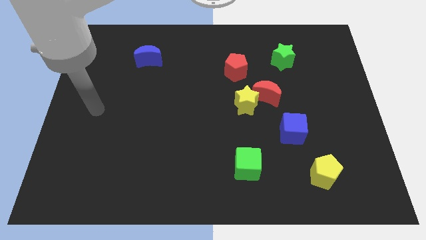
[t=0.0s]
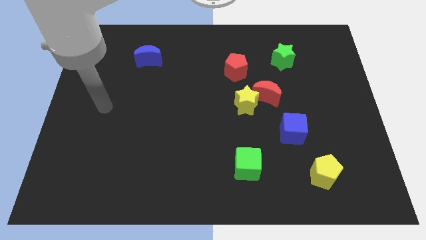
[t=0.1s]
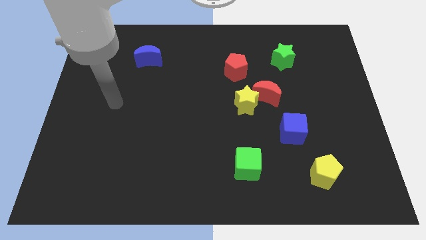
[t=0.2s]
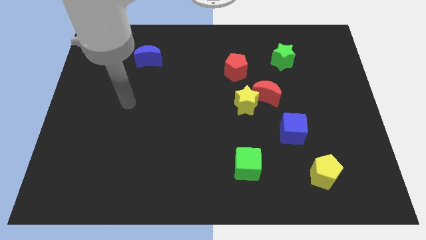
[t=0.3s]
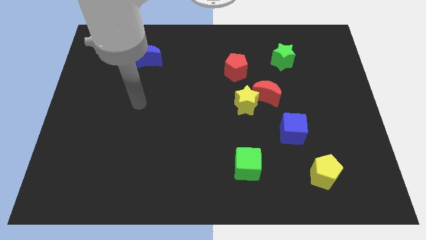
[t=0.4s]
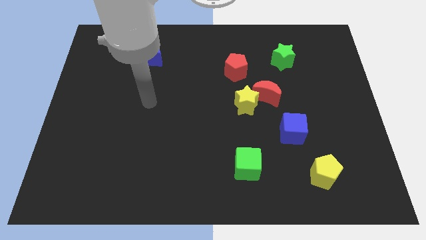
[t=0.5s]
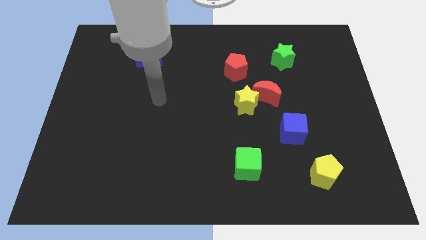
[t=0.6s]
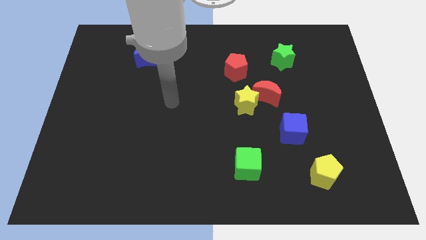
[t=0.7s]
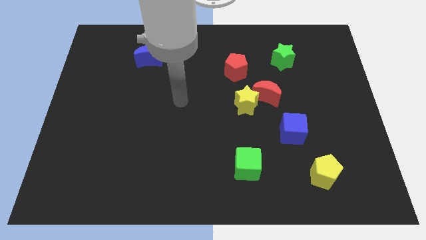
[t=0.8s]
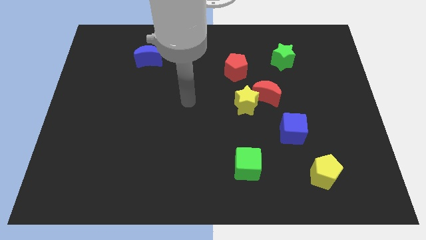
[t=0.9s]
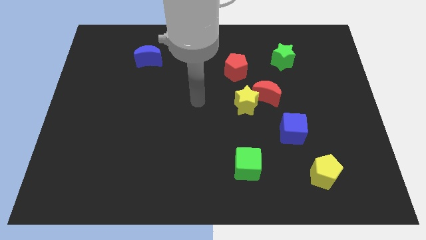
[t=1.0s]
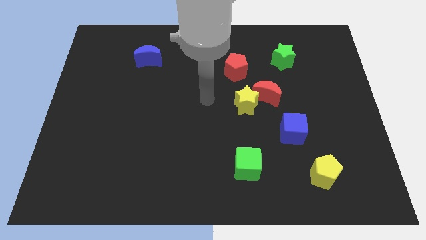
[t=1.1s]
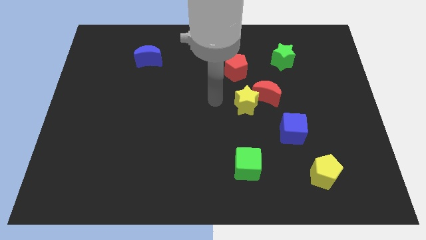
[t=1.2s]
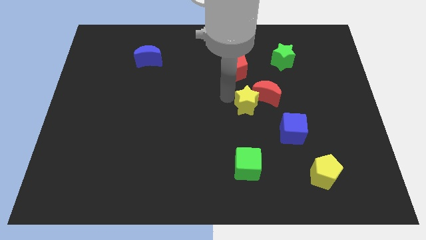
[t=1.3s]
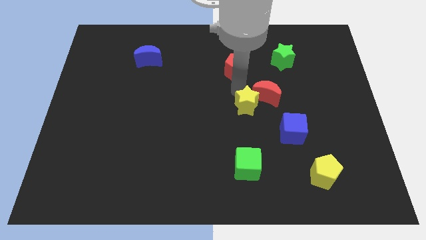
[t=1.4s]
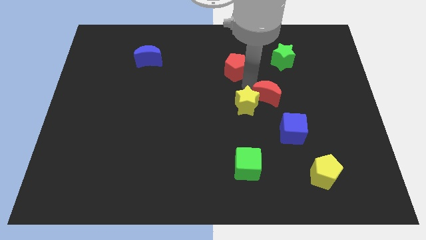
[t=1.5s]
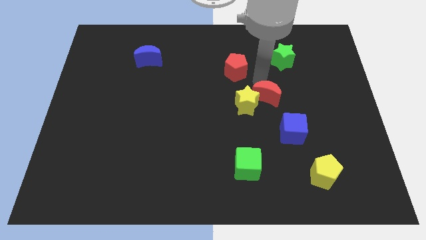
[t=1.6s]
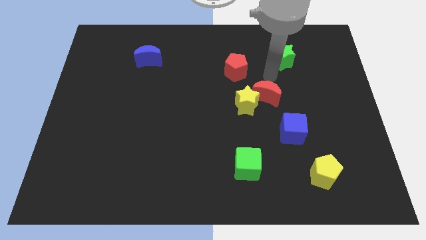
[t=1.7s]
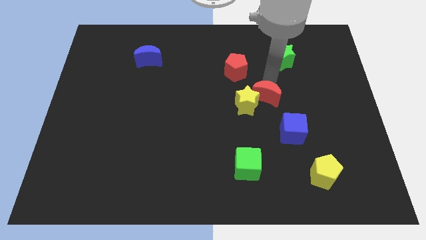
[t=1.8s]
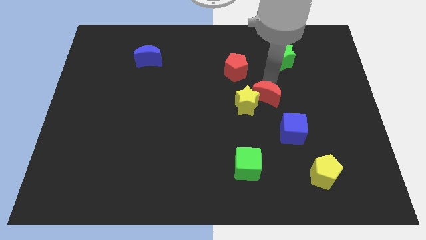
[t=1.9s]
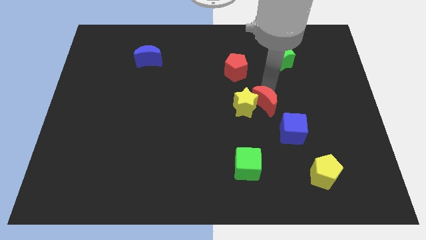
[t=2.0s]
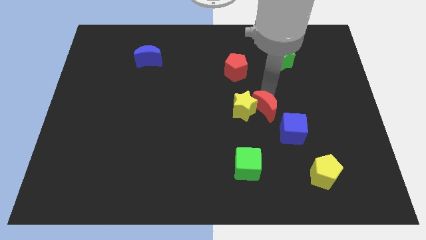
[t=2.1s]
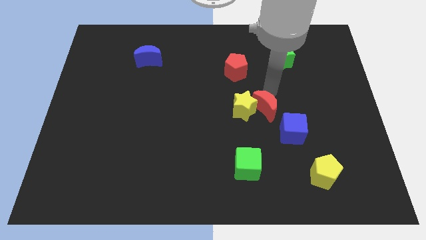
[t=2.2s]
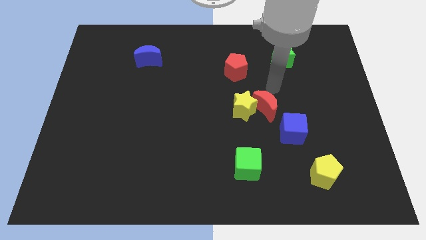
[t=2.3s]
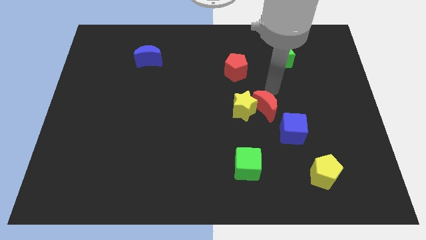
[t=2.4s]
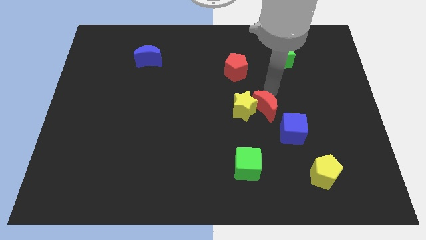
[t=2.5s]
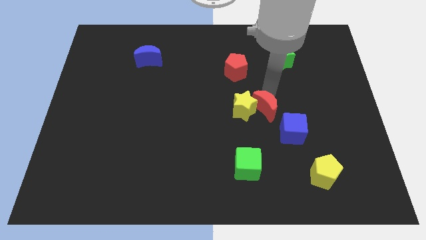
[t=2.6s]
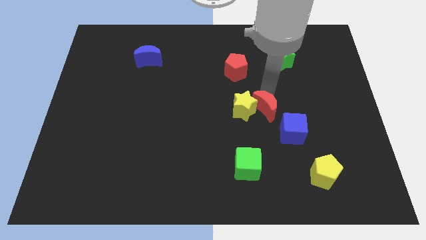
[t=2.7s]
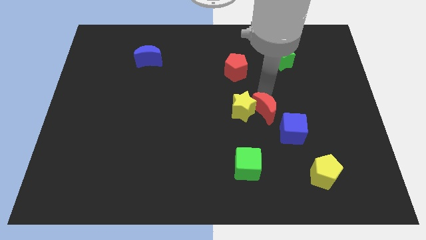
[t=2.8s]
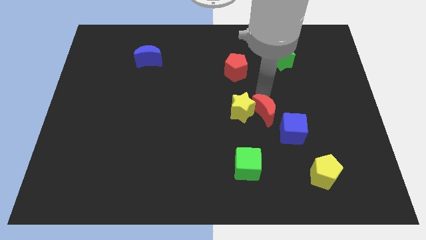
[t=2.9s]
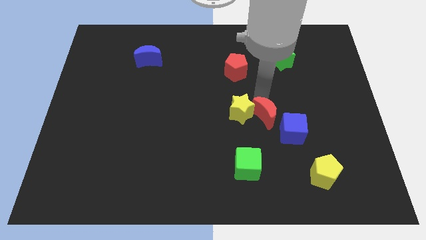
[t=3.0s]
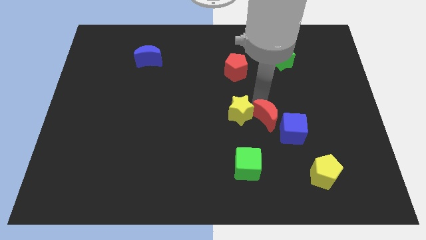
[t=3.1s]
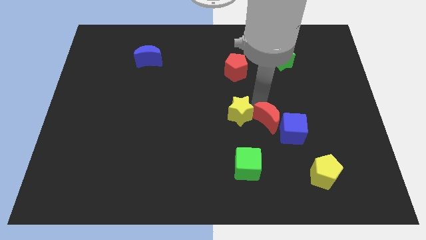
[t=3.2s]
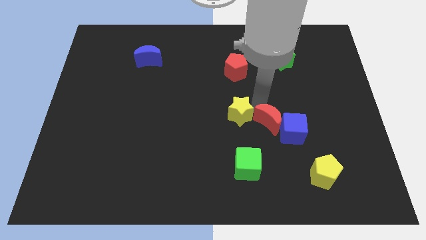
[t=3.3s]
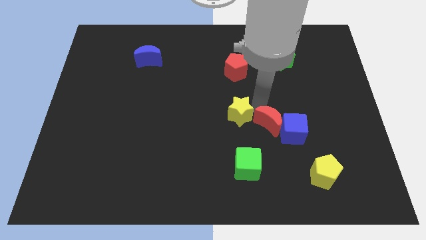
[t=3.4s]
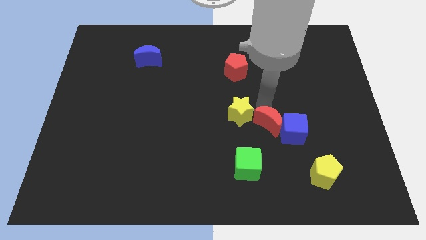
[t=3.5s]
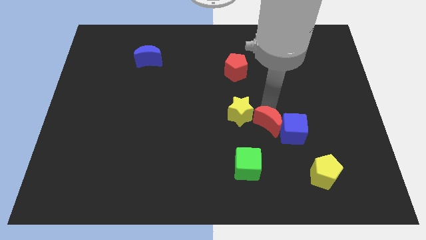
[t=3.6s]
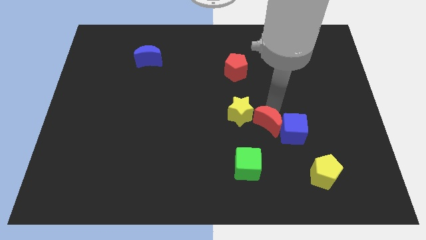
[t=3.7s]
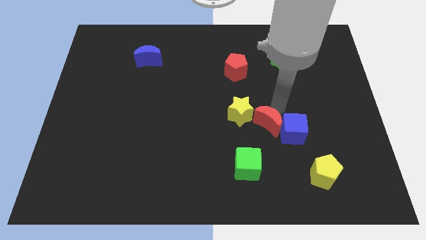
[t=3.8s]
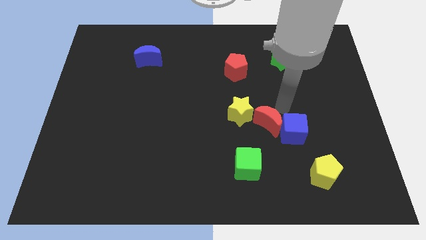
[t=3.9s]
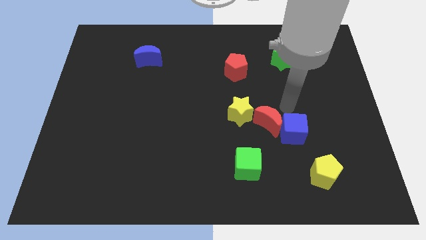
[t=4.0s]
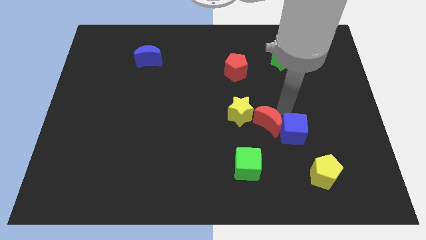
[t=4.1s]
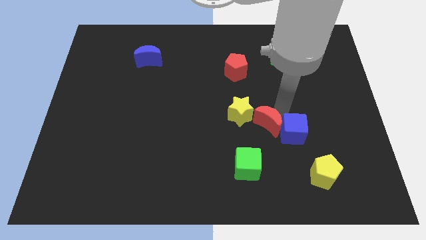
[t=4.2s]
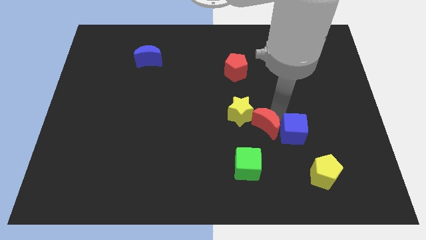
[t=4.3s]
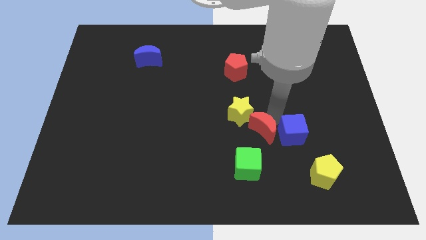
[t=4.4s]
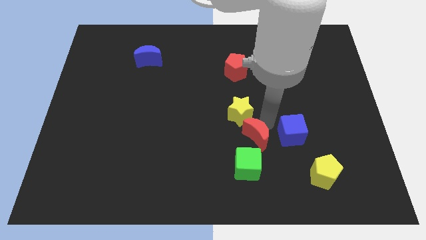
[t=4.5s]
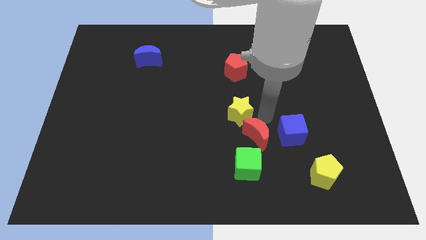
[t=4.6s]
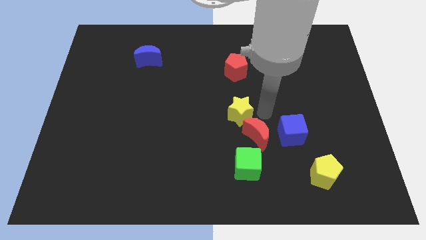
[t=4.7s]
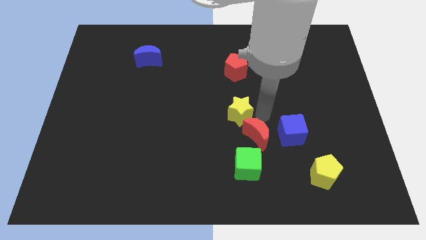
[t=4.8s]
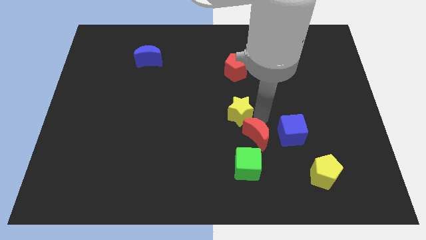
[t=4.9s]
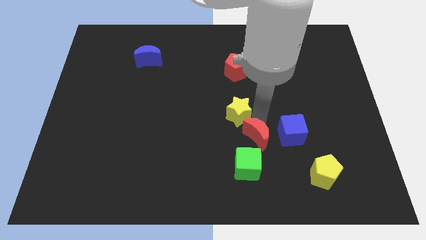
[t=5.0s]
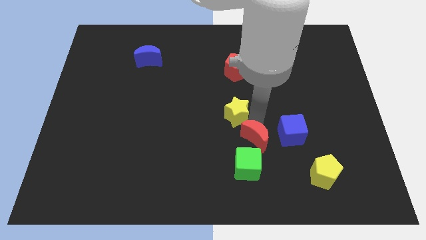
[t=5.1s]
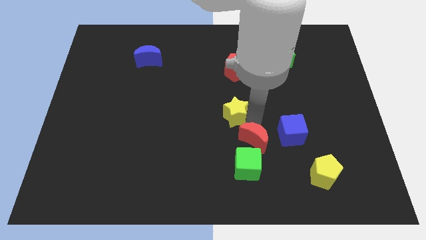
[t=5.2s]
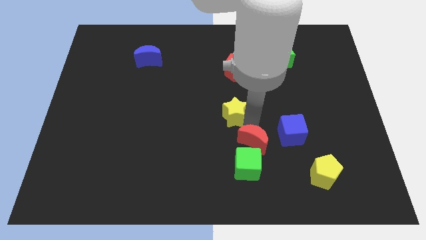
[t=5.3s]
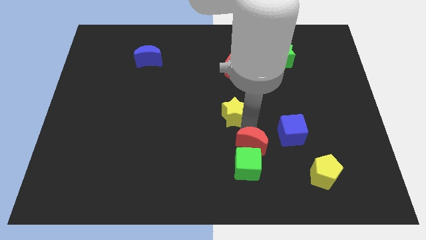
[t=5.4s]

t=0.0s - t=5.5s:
push the red moon towards the green cube

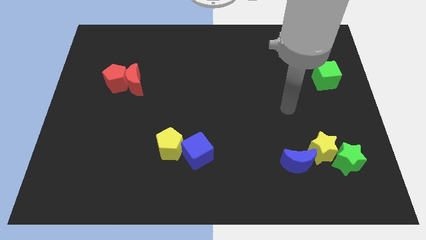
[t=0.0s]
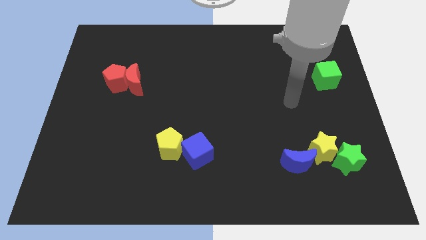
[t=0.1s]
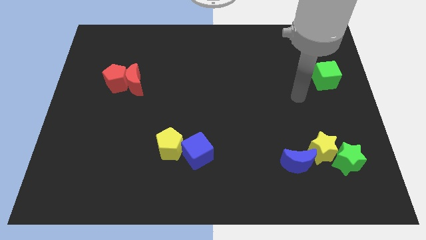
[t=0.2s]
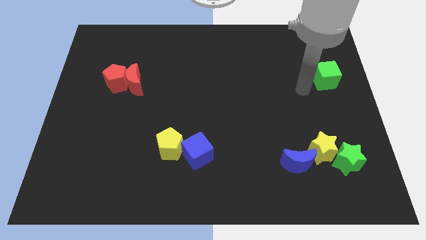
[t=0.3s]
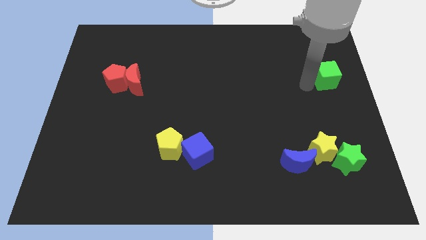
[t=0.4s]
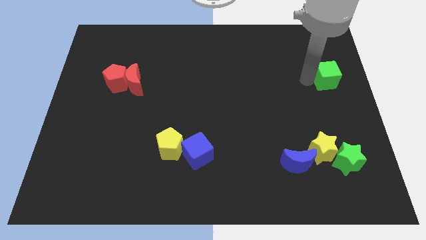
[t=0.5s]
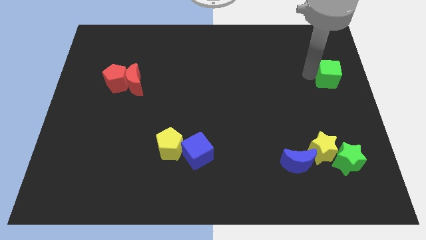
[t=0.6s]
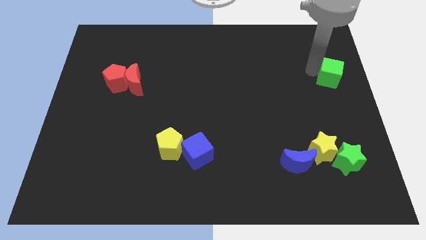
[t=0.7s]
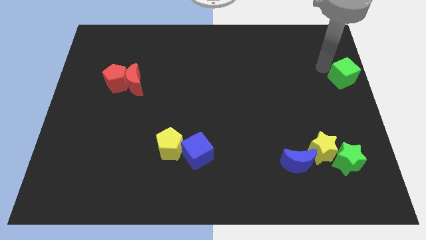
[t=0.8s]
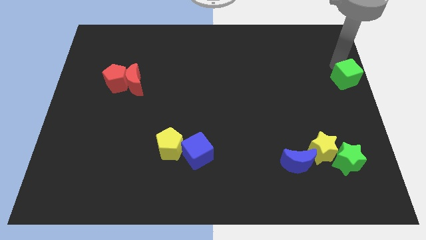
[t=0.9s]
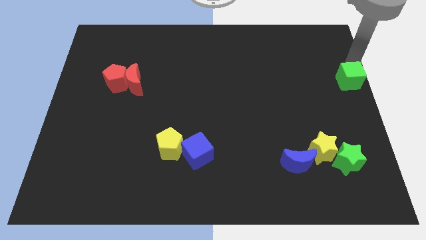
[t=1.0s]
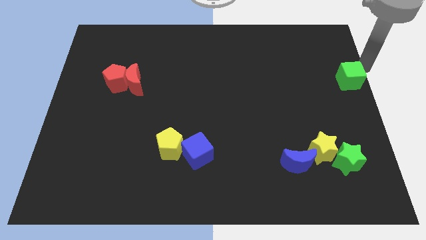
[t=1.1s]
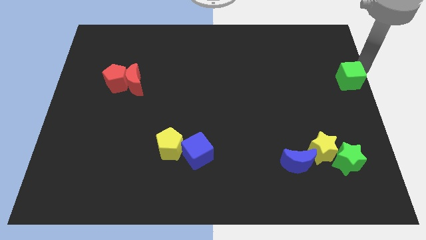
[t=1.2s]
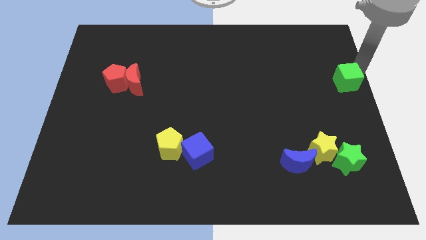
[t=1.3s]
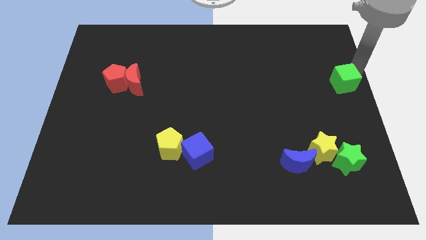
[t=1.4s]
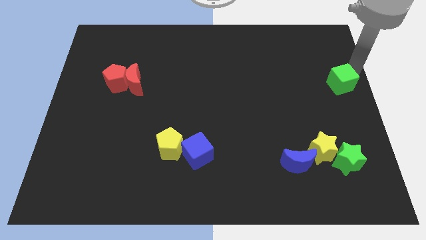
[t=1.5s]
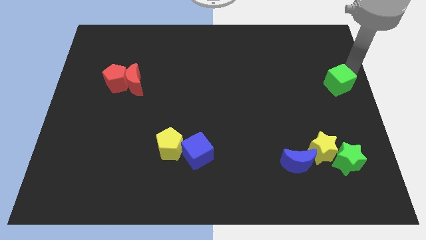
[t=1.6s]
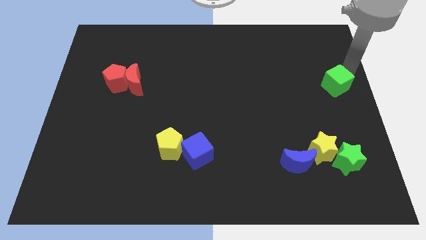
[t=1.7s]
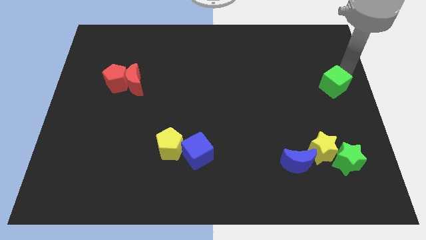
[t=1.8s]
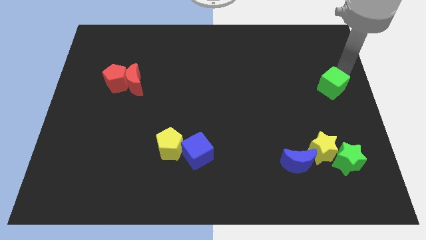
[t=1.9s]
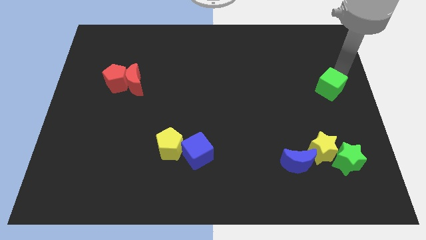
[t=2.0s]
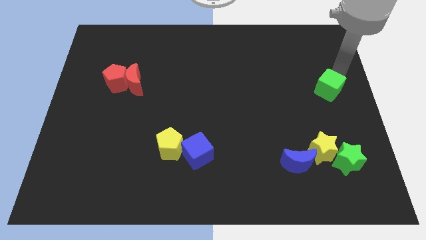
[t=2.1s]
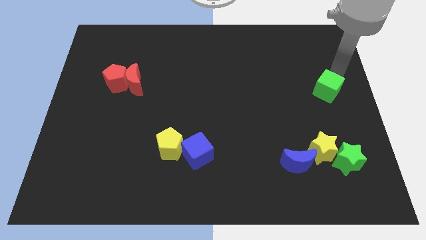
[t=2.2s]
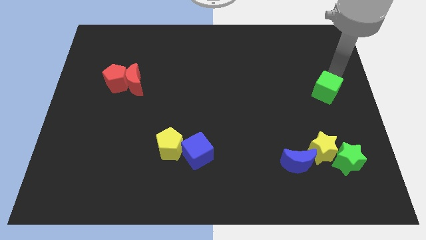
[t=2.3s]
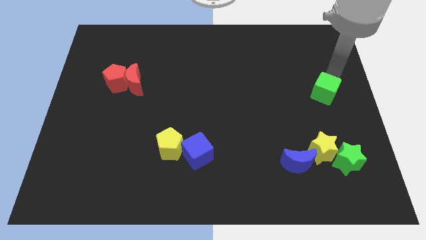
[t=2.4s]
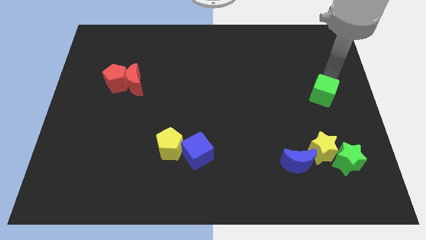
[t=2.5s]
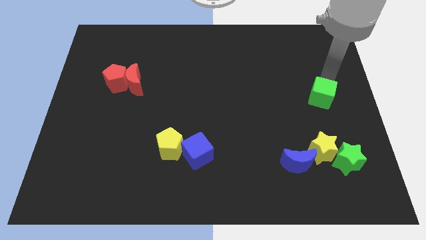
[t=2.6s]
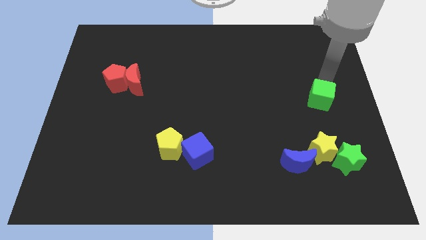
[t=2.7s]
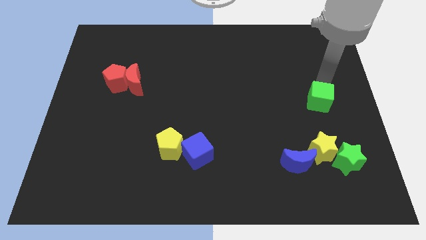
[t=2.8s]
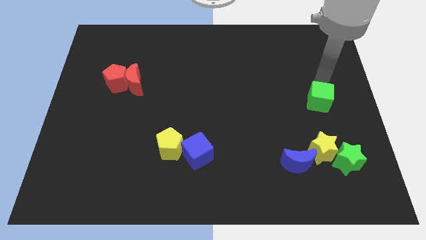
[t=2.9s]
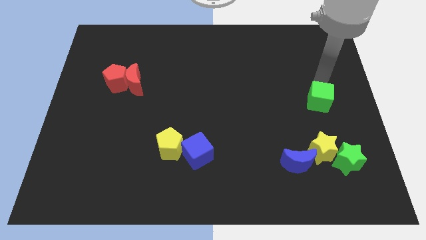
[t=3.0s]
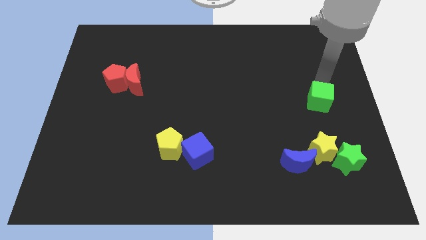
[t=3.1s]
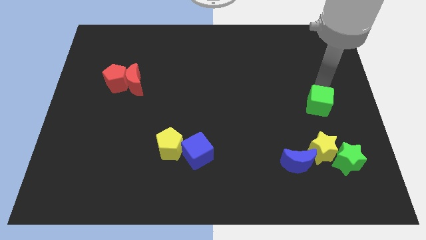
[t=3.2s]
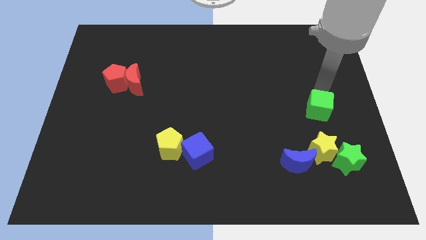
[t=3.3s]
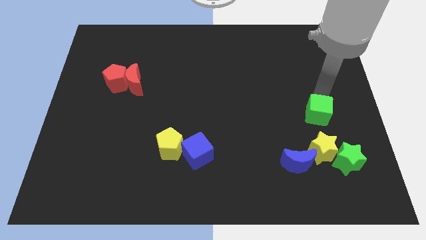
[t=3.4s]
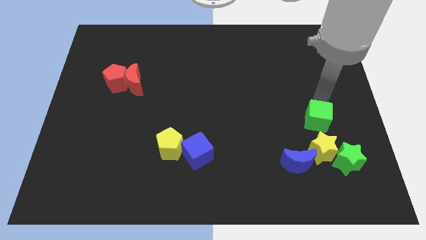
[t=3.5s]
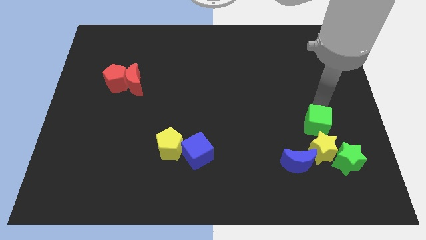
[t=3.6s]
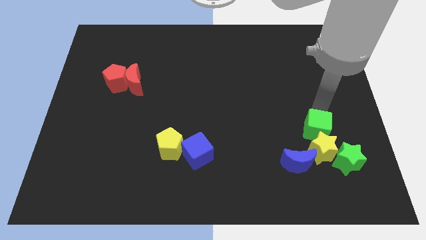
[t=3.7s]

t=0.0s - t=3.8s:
slide the green cube to the yellow star
